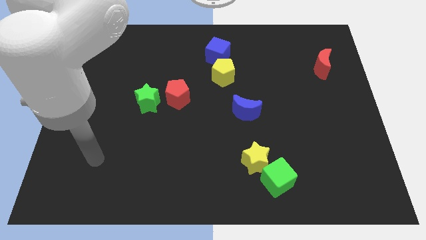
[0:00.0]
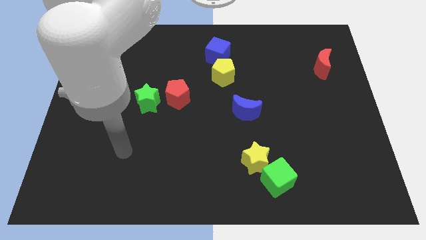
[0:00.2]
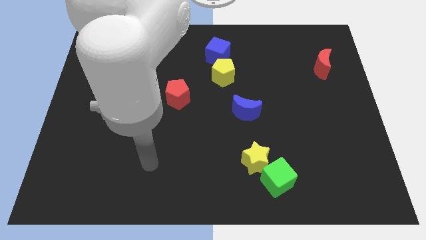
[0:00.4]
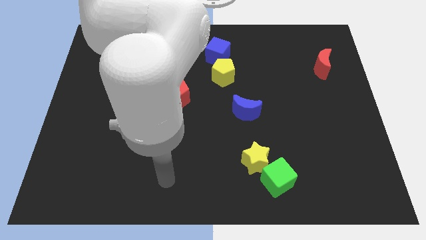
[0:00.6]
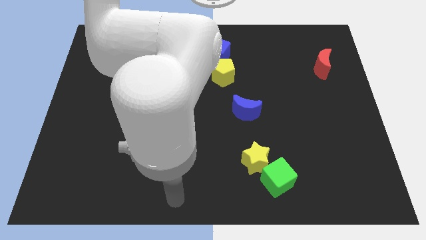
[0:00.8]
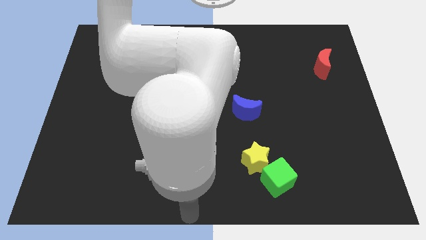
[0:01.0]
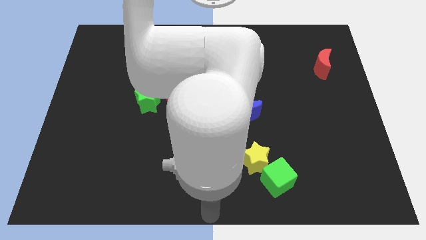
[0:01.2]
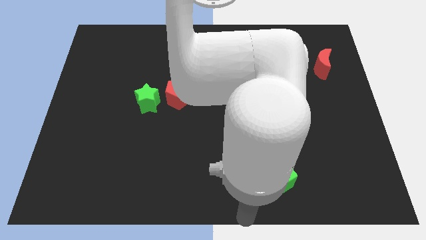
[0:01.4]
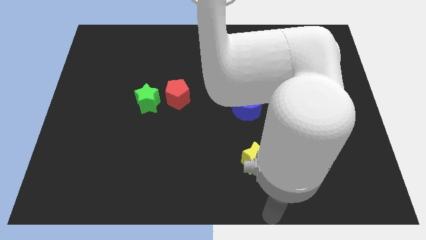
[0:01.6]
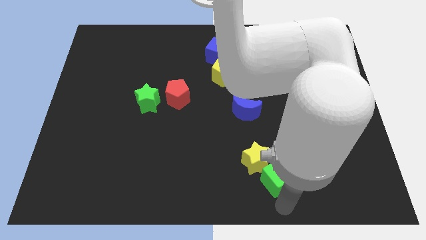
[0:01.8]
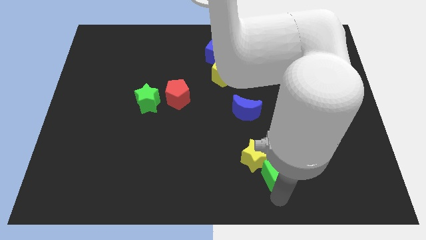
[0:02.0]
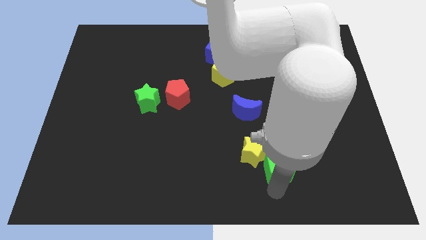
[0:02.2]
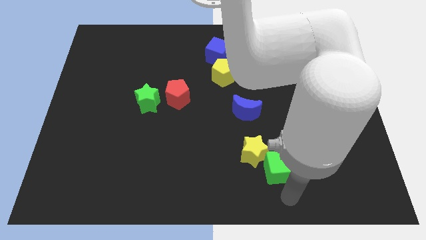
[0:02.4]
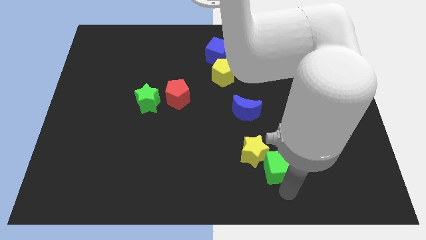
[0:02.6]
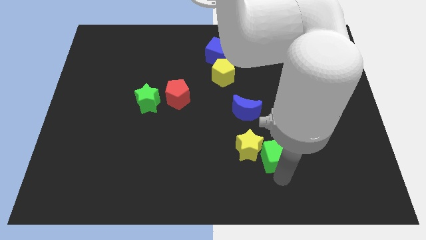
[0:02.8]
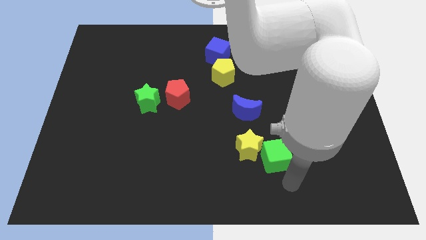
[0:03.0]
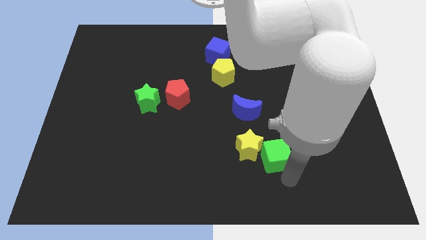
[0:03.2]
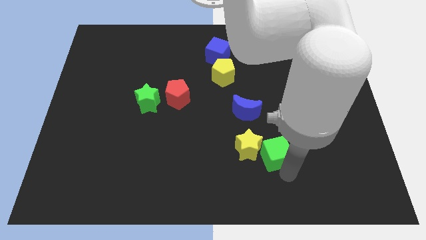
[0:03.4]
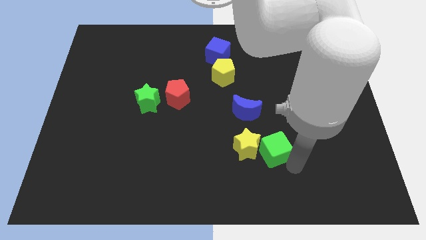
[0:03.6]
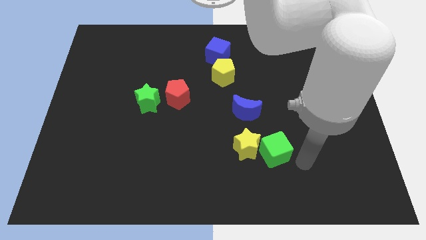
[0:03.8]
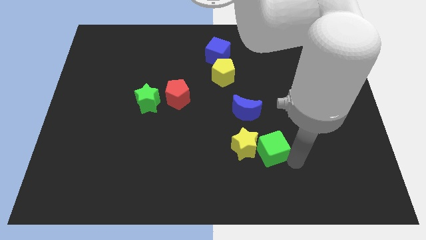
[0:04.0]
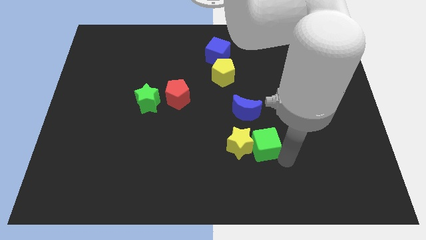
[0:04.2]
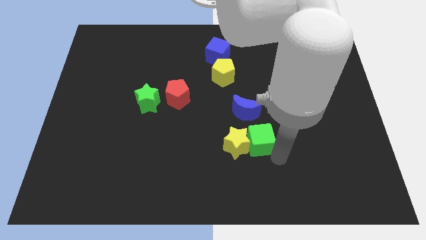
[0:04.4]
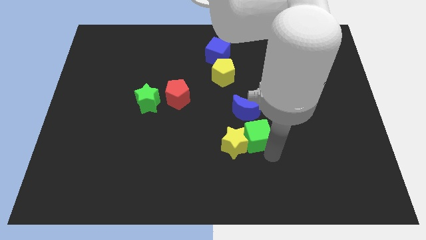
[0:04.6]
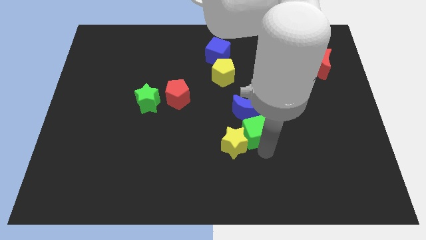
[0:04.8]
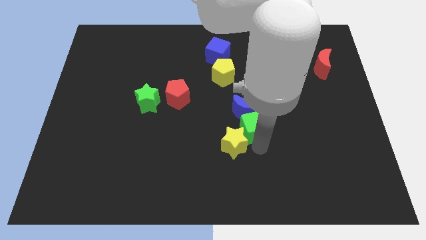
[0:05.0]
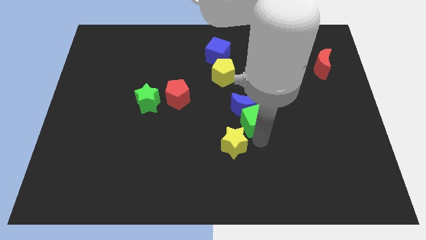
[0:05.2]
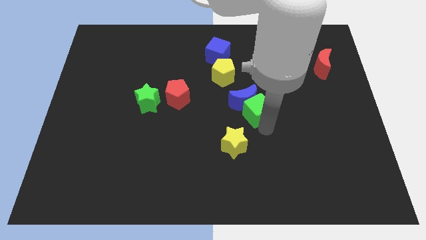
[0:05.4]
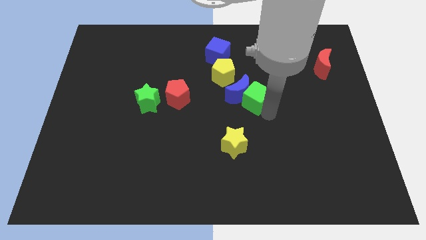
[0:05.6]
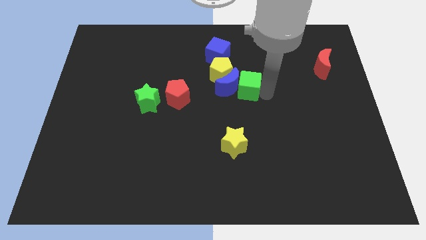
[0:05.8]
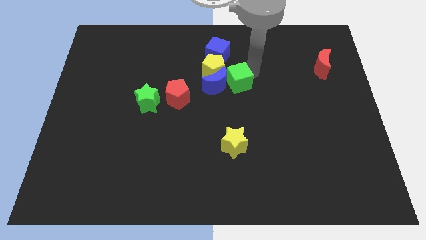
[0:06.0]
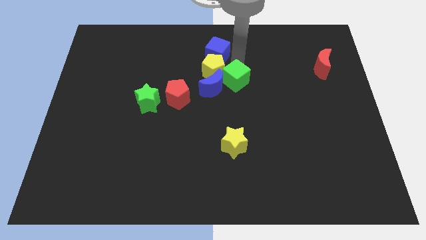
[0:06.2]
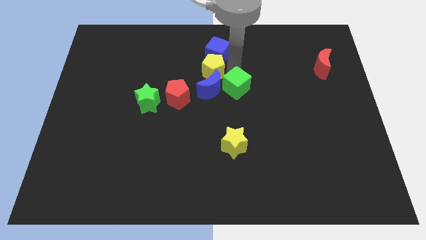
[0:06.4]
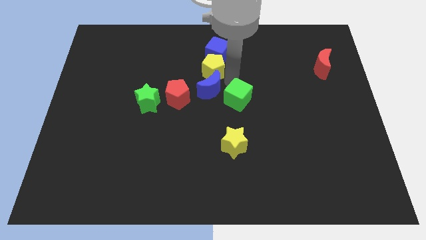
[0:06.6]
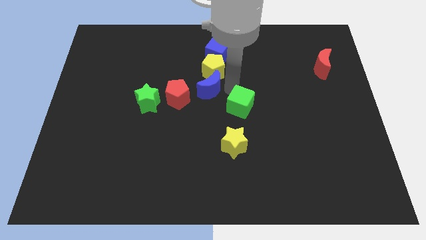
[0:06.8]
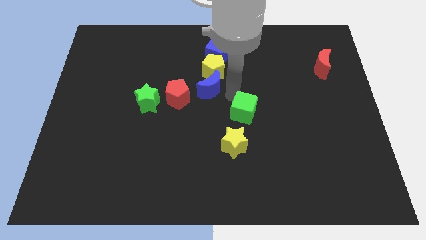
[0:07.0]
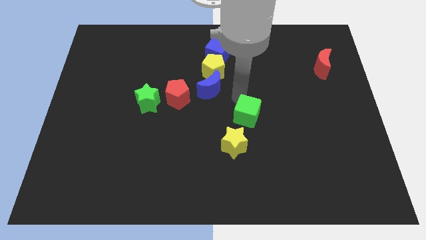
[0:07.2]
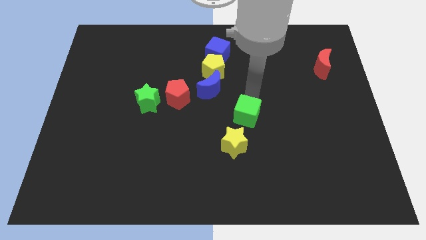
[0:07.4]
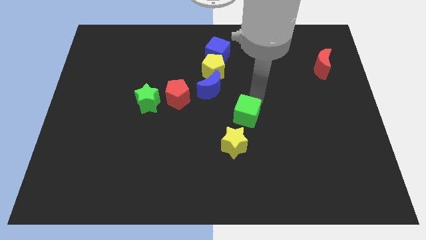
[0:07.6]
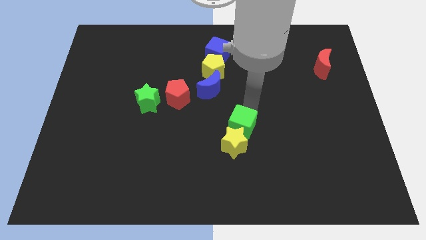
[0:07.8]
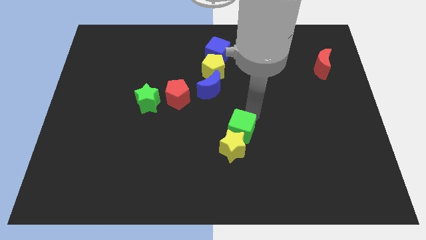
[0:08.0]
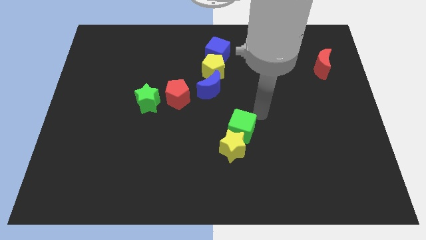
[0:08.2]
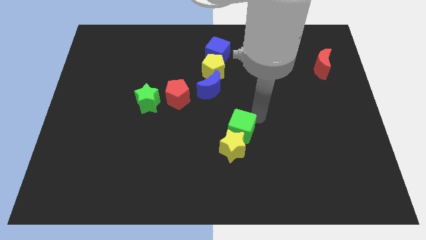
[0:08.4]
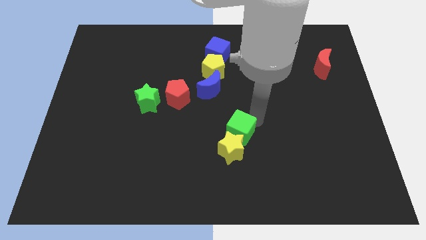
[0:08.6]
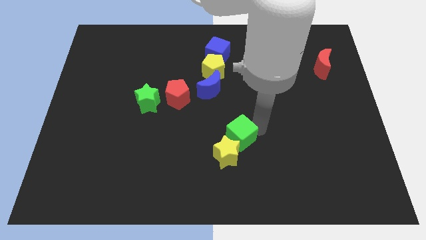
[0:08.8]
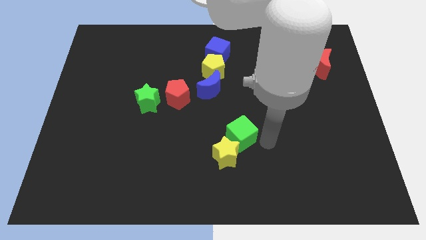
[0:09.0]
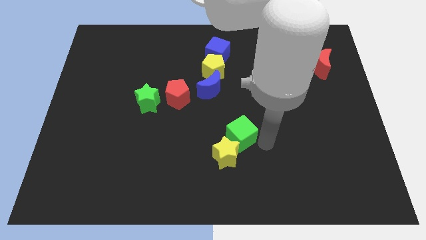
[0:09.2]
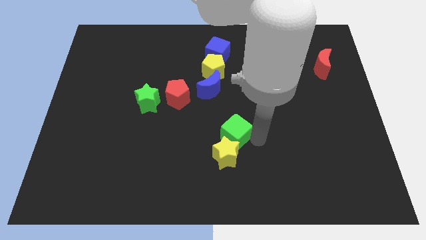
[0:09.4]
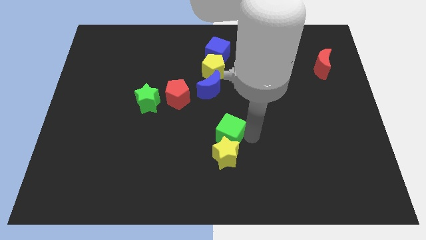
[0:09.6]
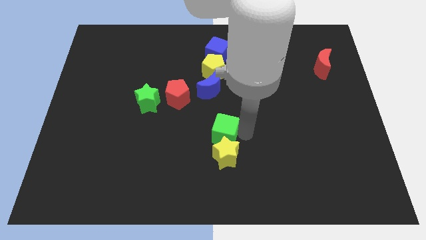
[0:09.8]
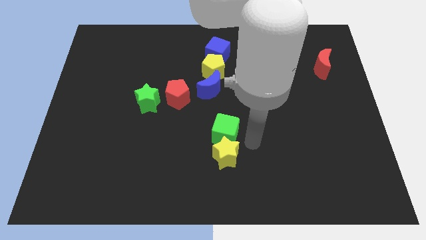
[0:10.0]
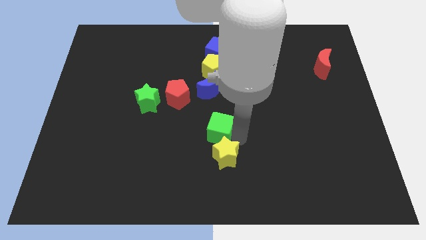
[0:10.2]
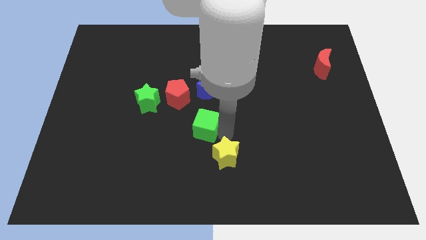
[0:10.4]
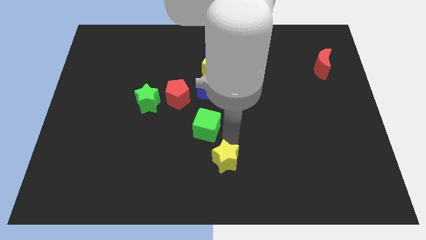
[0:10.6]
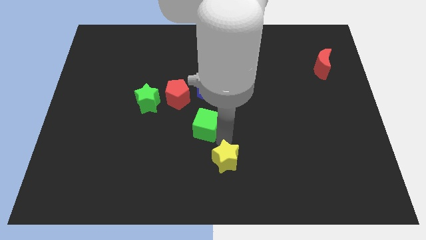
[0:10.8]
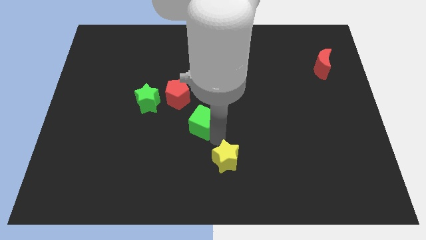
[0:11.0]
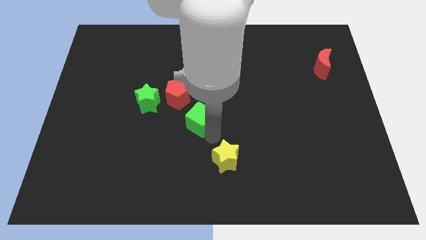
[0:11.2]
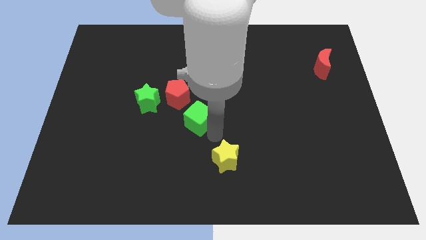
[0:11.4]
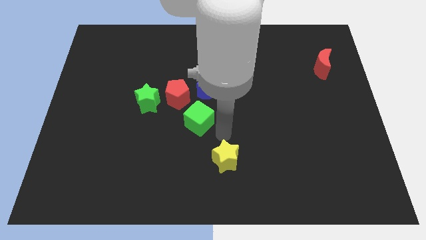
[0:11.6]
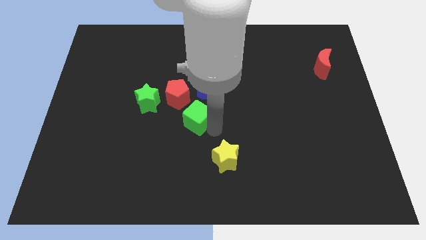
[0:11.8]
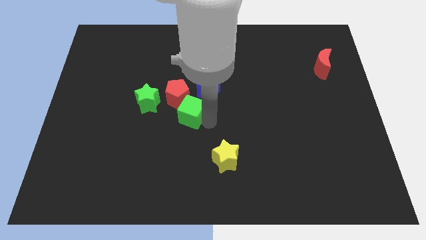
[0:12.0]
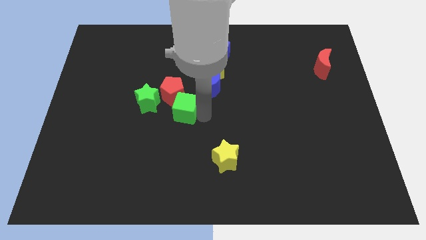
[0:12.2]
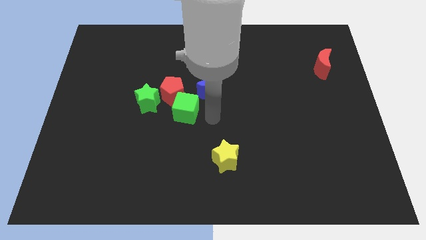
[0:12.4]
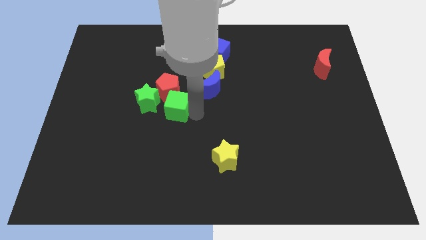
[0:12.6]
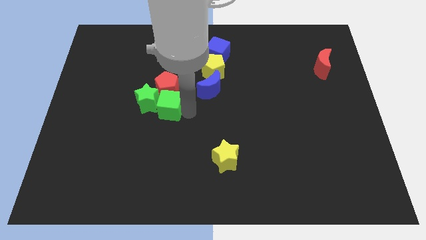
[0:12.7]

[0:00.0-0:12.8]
push the green cube to the green star

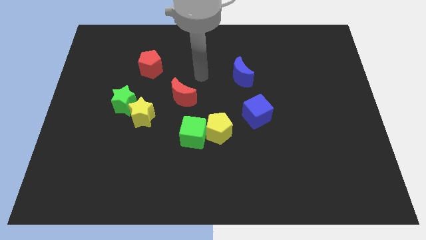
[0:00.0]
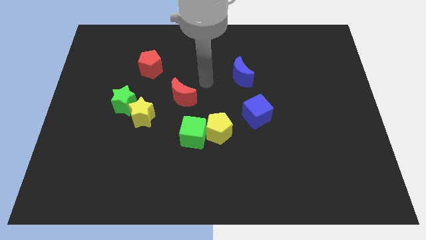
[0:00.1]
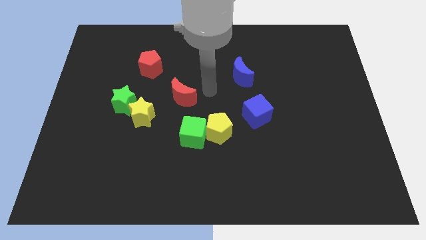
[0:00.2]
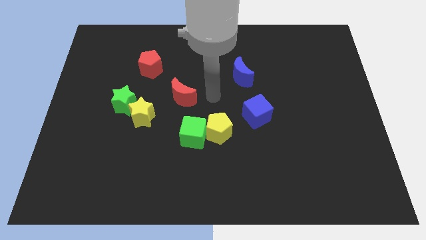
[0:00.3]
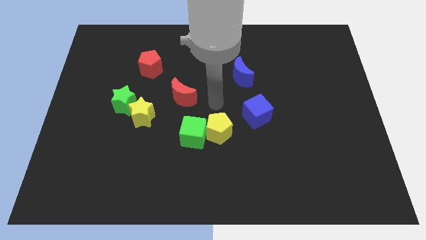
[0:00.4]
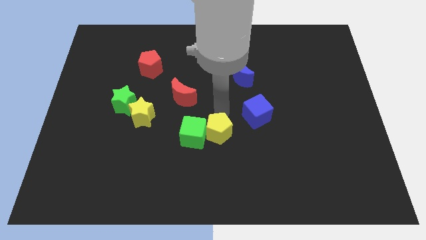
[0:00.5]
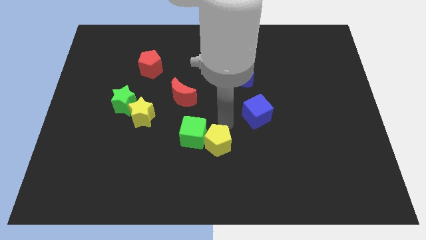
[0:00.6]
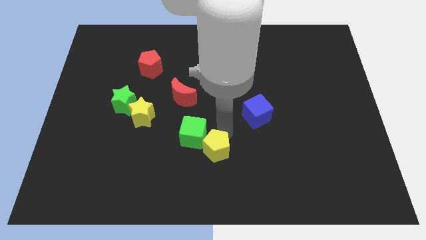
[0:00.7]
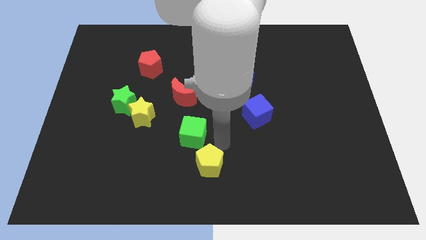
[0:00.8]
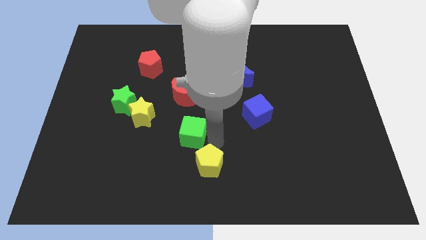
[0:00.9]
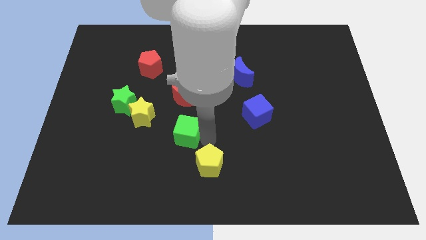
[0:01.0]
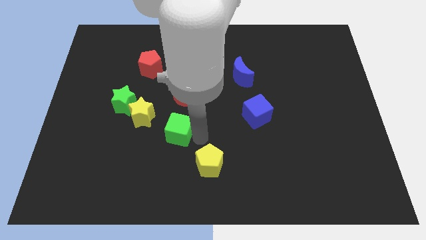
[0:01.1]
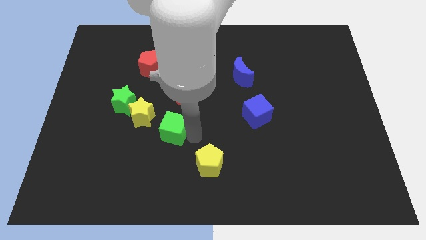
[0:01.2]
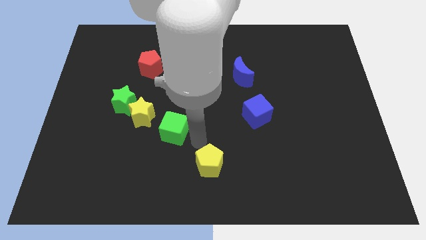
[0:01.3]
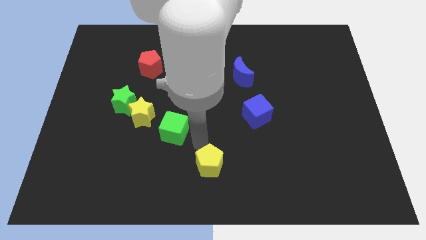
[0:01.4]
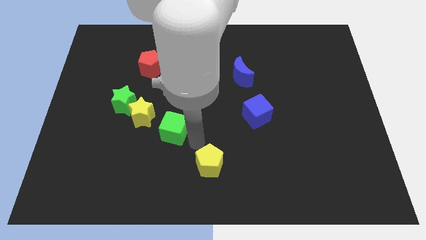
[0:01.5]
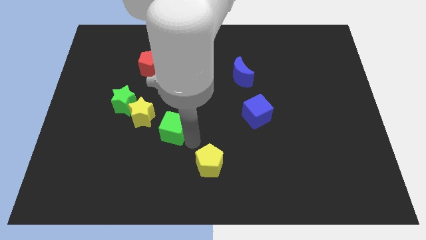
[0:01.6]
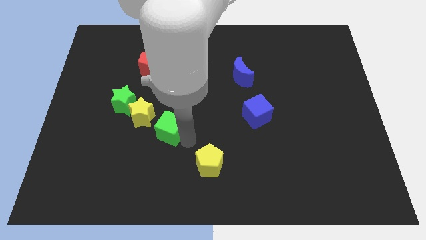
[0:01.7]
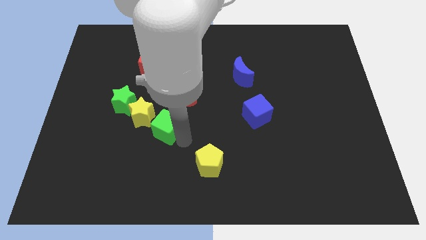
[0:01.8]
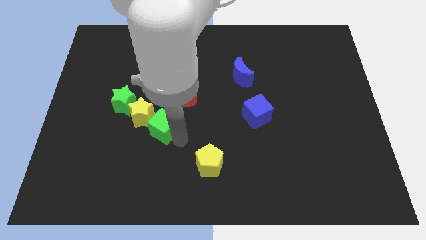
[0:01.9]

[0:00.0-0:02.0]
put the green cube next to the yellow star
